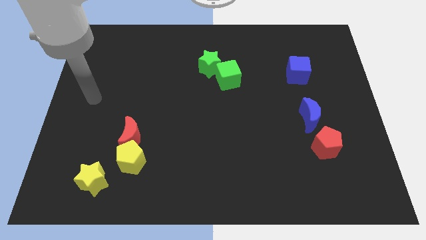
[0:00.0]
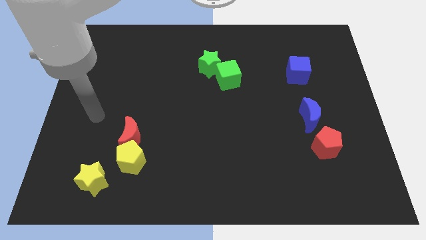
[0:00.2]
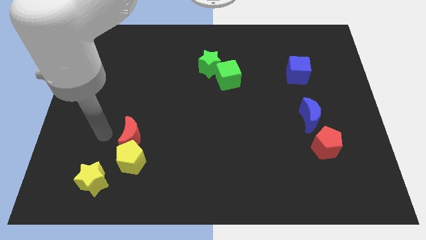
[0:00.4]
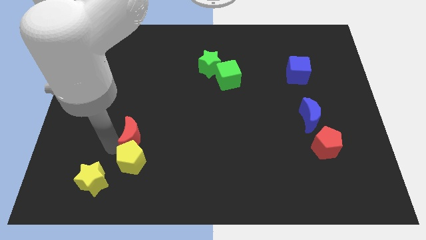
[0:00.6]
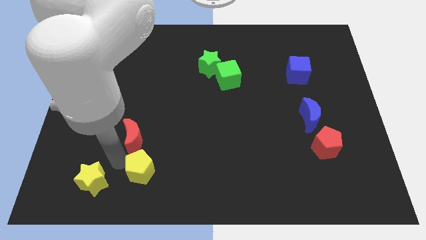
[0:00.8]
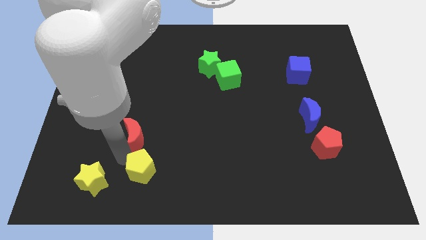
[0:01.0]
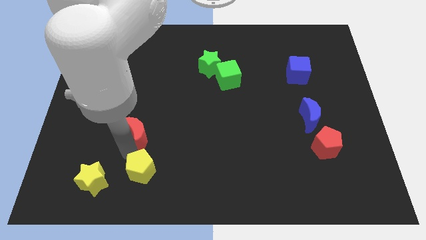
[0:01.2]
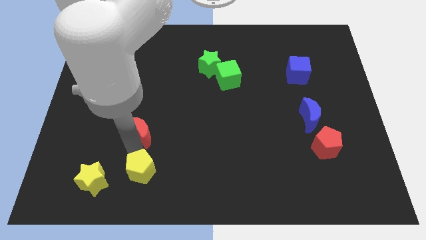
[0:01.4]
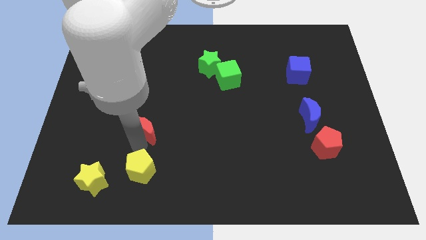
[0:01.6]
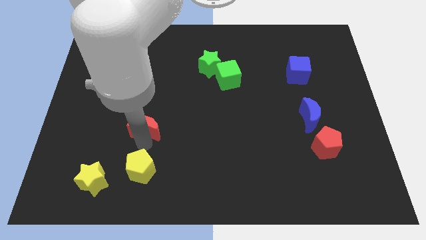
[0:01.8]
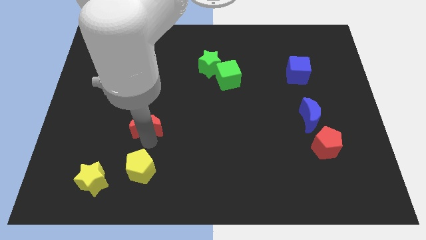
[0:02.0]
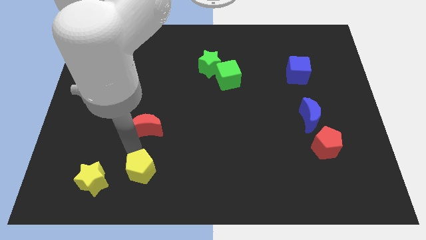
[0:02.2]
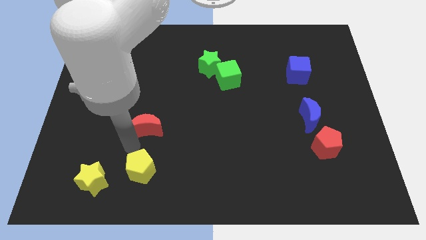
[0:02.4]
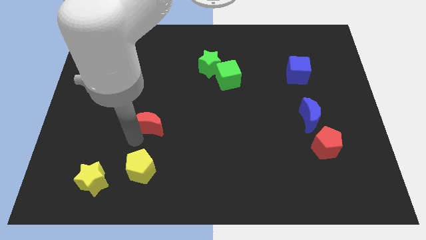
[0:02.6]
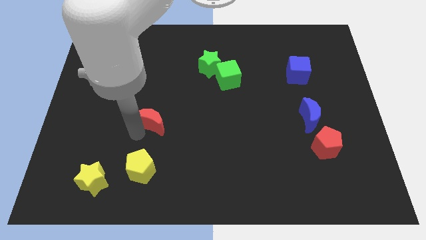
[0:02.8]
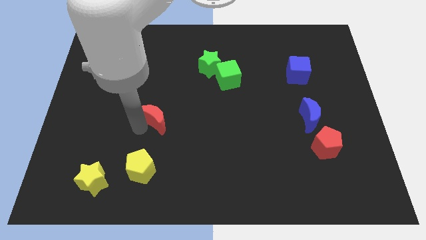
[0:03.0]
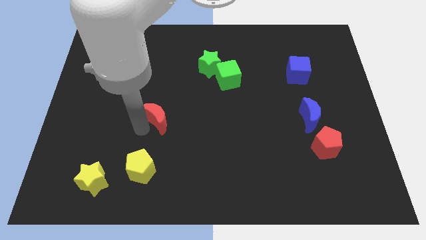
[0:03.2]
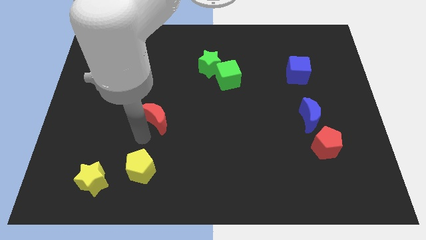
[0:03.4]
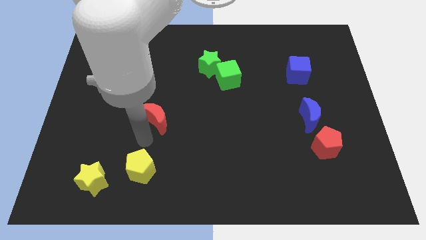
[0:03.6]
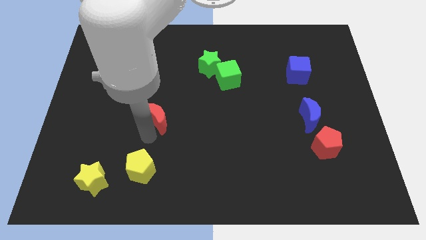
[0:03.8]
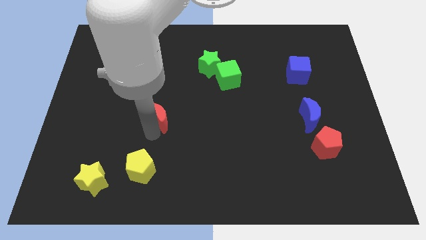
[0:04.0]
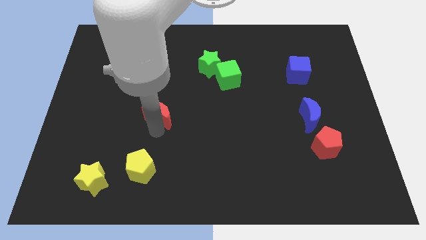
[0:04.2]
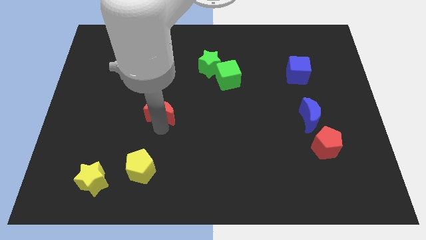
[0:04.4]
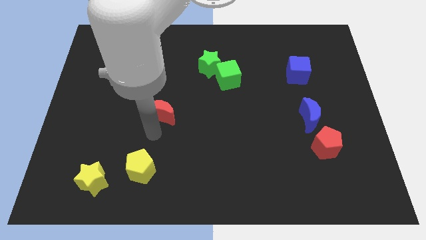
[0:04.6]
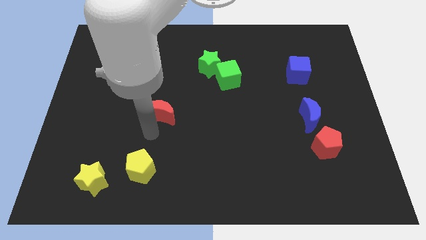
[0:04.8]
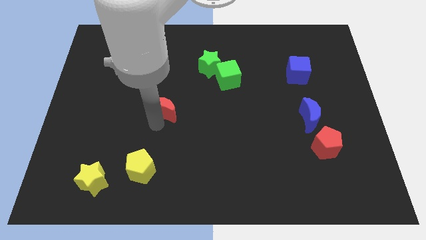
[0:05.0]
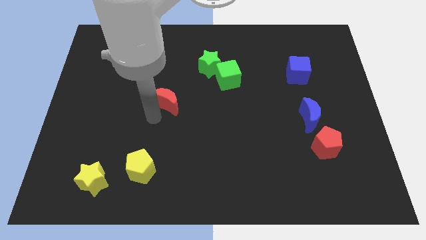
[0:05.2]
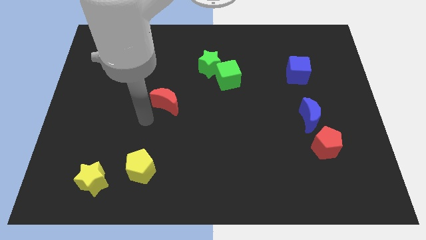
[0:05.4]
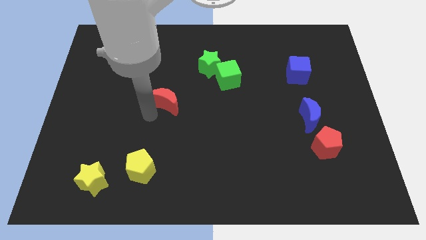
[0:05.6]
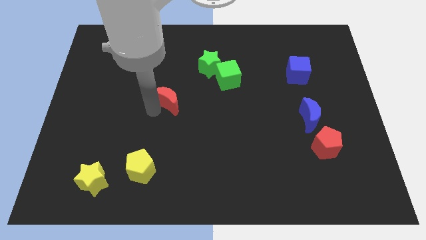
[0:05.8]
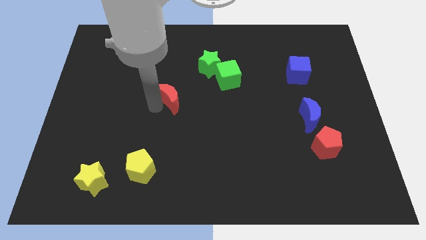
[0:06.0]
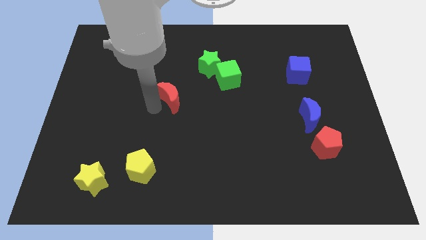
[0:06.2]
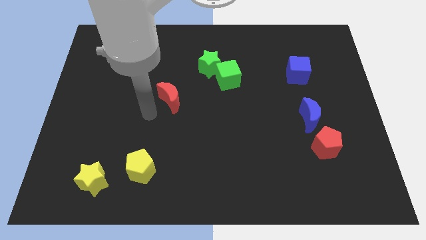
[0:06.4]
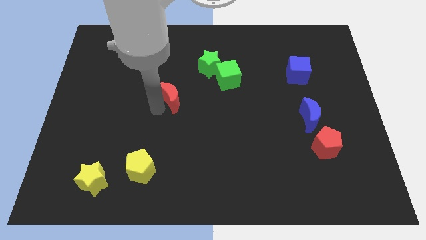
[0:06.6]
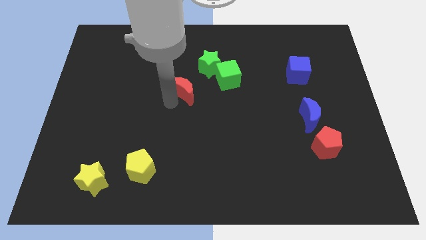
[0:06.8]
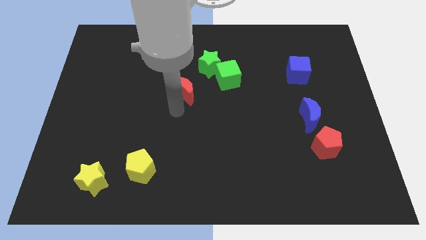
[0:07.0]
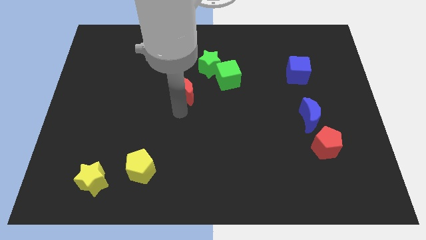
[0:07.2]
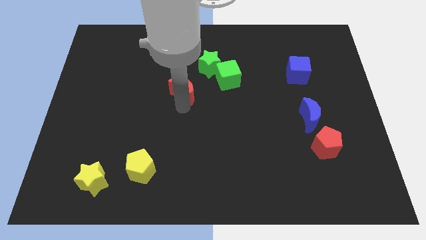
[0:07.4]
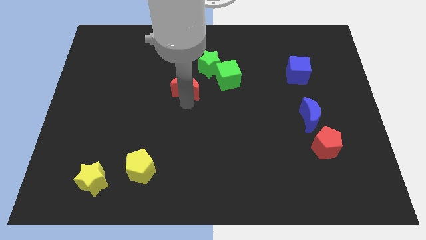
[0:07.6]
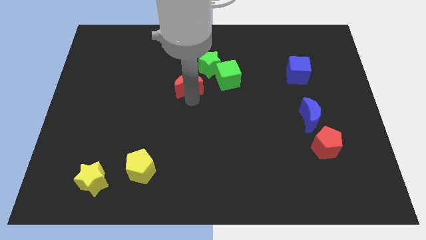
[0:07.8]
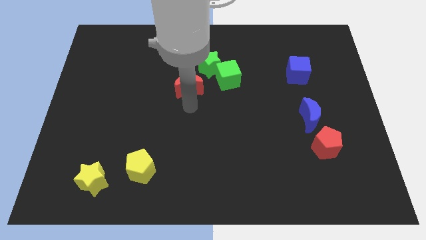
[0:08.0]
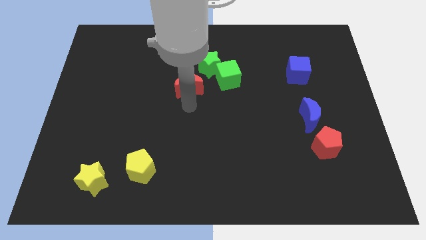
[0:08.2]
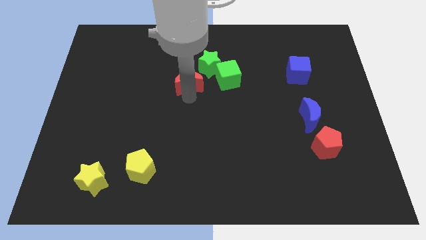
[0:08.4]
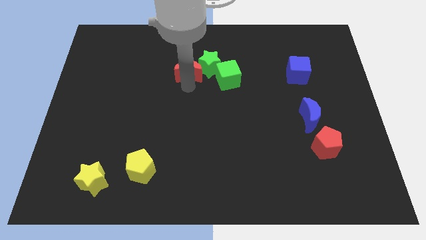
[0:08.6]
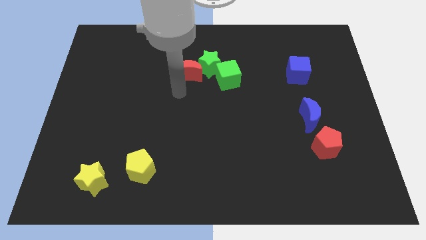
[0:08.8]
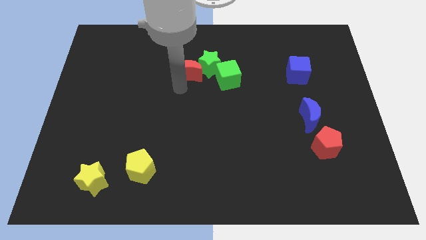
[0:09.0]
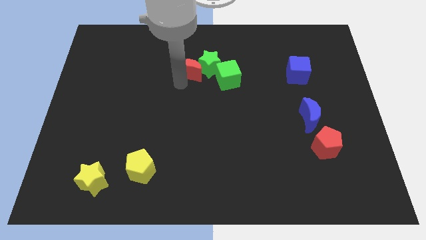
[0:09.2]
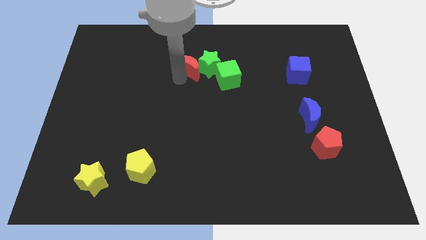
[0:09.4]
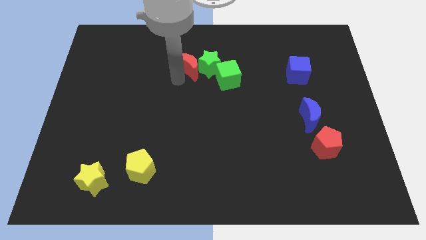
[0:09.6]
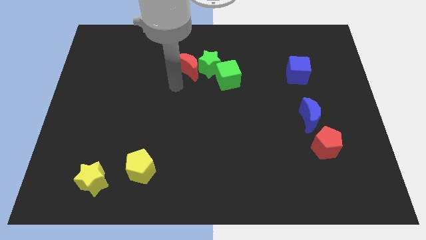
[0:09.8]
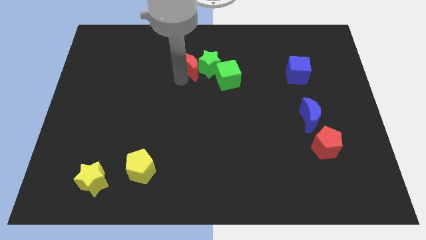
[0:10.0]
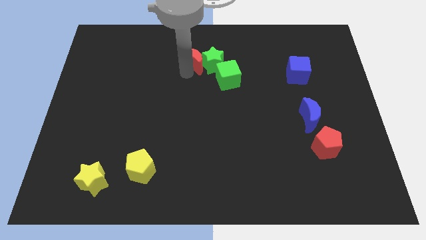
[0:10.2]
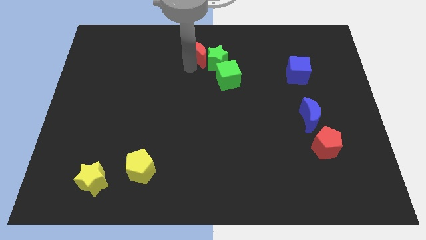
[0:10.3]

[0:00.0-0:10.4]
move the red moon to the top side

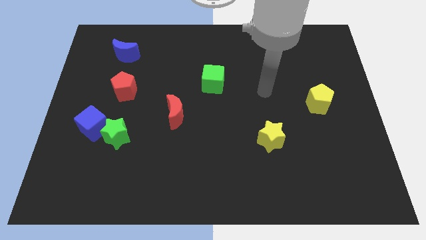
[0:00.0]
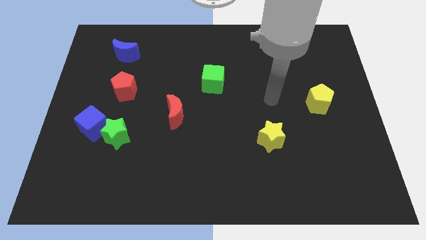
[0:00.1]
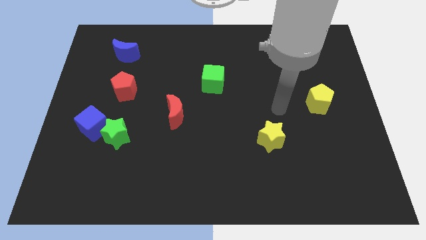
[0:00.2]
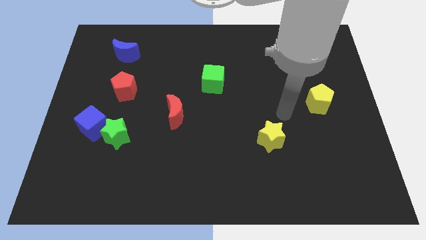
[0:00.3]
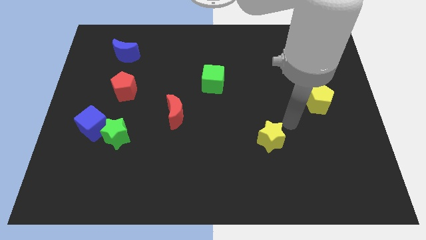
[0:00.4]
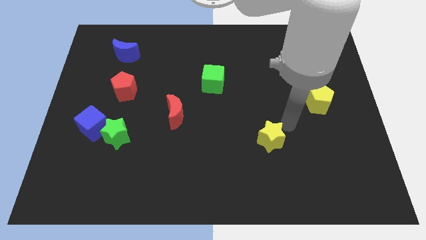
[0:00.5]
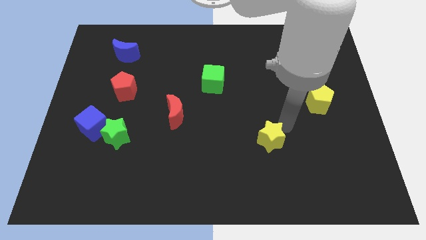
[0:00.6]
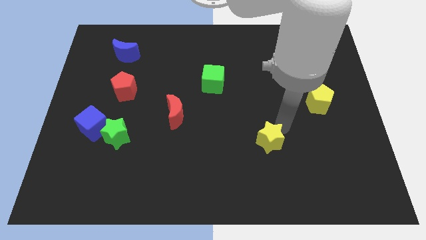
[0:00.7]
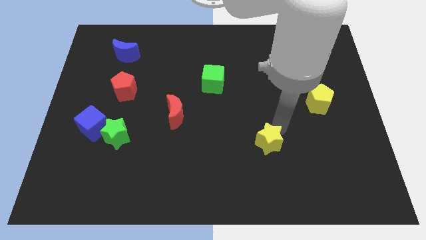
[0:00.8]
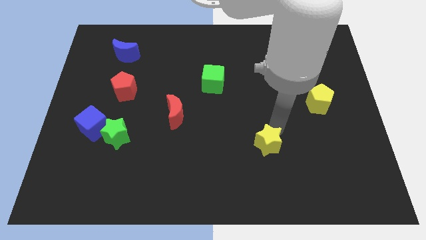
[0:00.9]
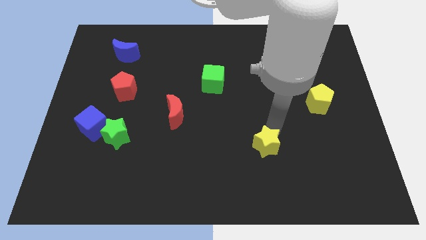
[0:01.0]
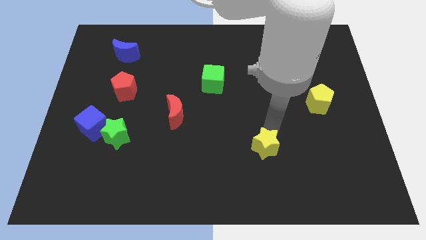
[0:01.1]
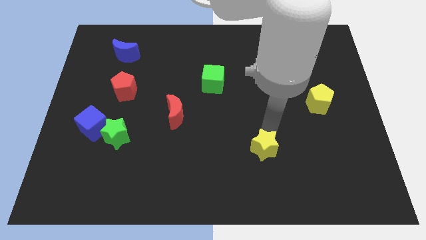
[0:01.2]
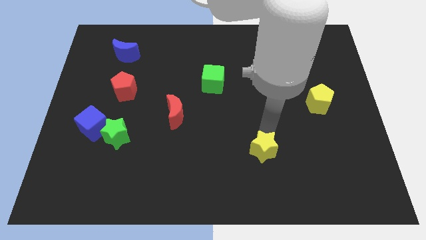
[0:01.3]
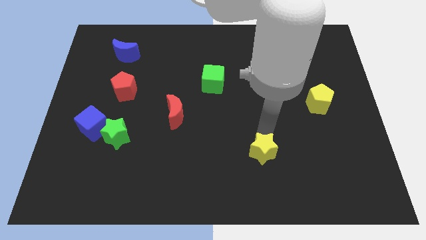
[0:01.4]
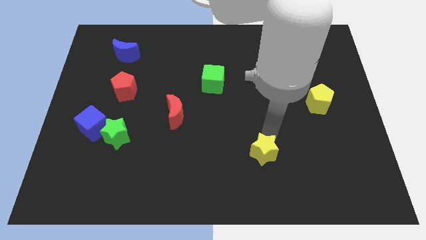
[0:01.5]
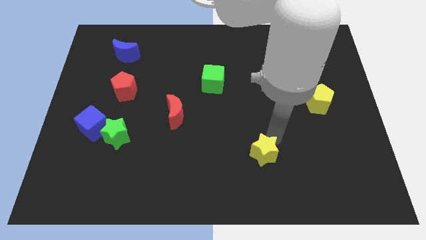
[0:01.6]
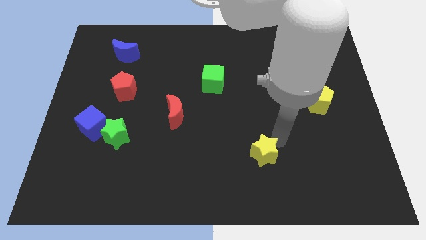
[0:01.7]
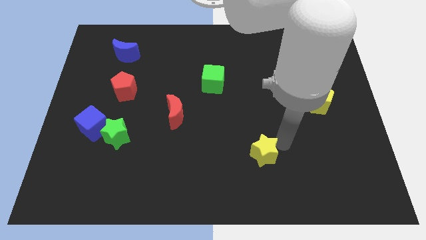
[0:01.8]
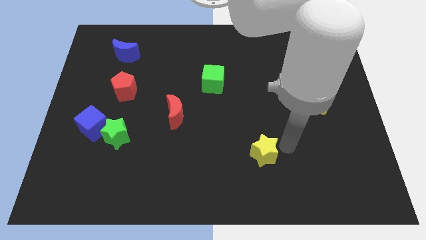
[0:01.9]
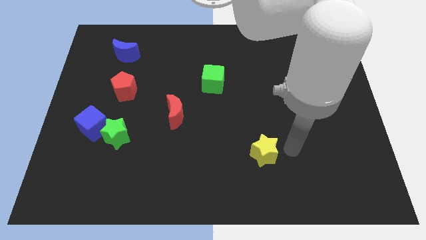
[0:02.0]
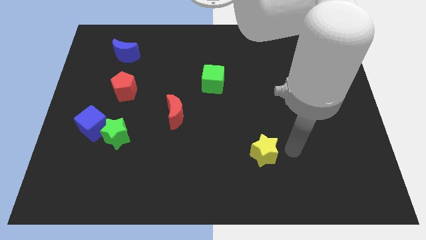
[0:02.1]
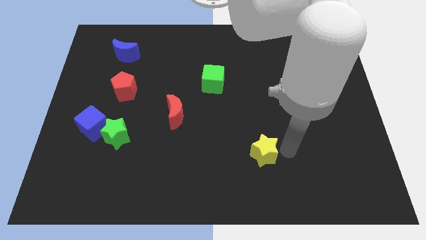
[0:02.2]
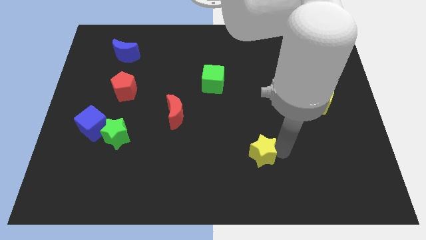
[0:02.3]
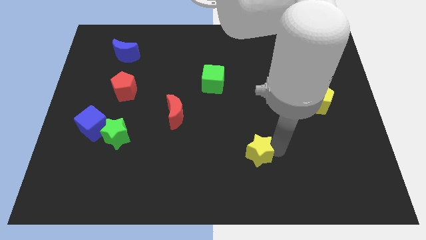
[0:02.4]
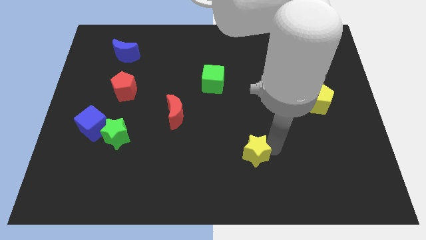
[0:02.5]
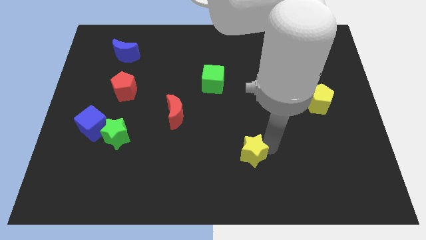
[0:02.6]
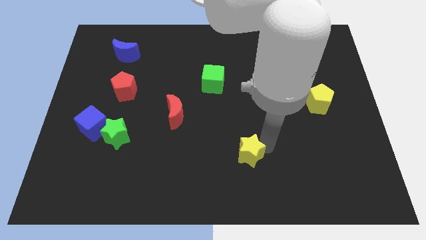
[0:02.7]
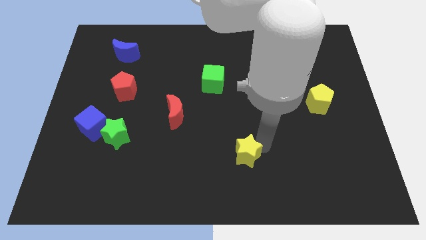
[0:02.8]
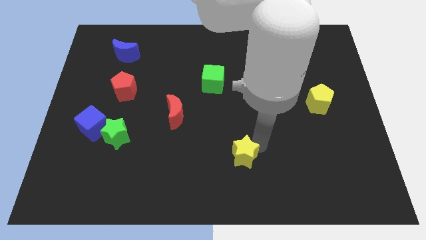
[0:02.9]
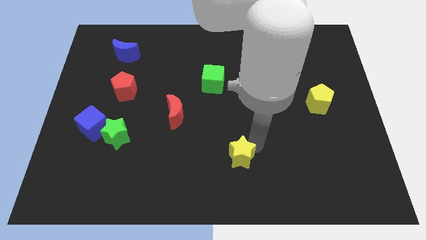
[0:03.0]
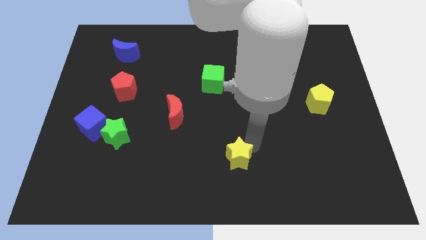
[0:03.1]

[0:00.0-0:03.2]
slide the yellow star to the bottom
